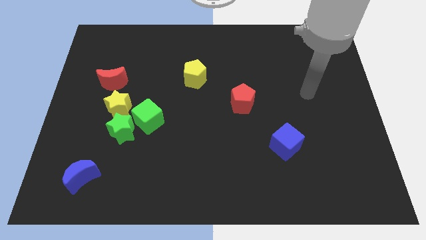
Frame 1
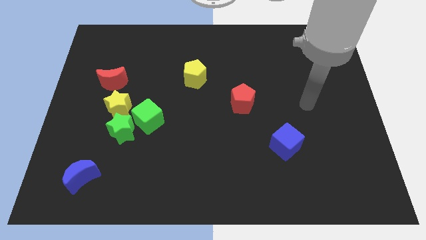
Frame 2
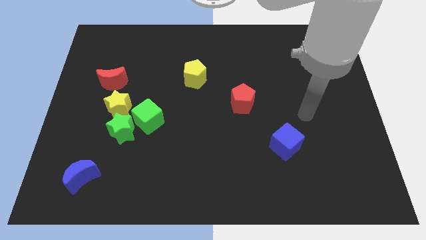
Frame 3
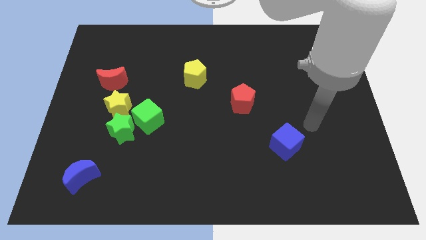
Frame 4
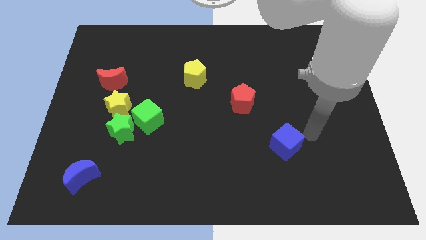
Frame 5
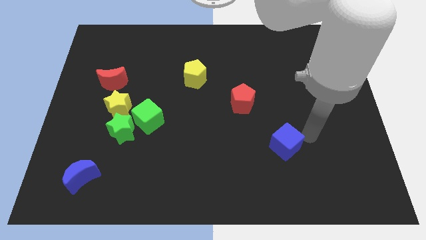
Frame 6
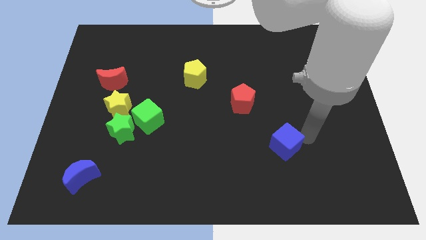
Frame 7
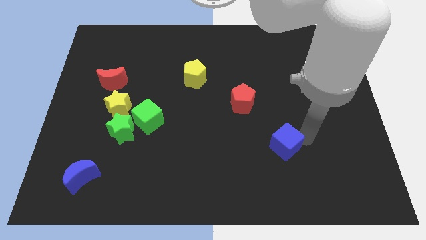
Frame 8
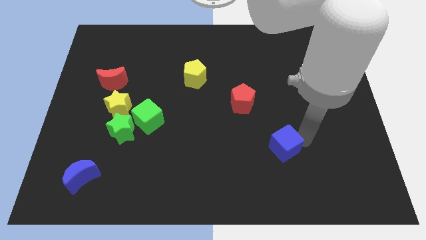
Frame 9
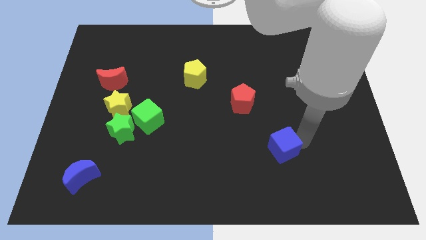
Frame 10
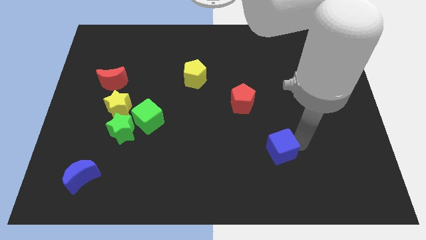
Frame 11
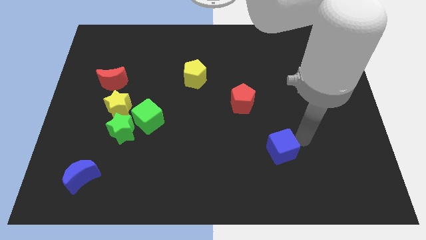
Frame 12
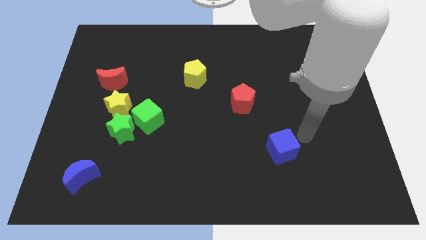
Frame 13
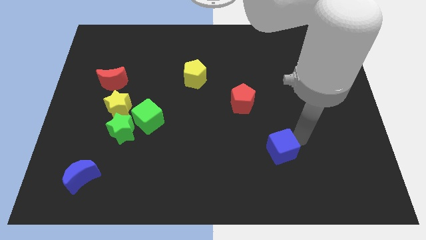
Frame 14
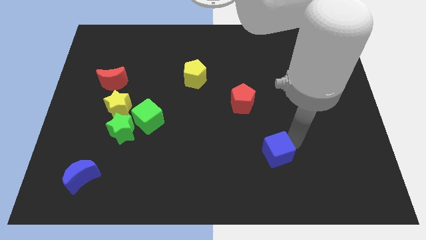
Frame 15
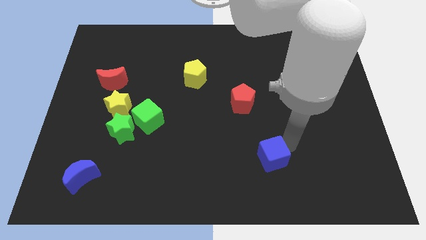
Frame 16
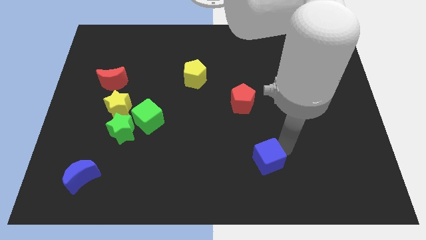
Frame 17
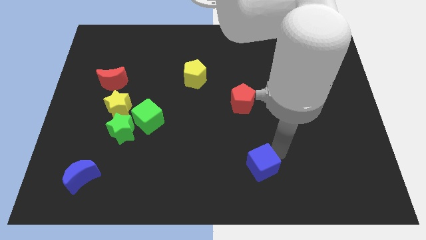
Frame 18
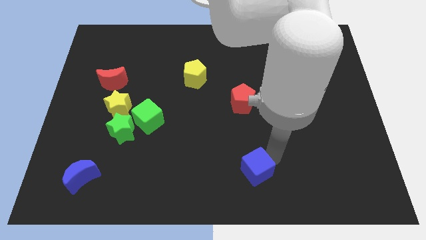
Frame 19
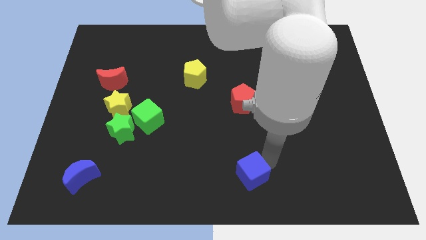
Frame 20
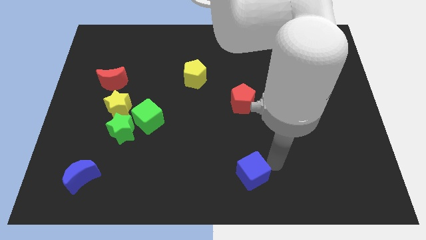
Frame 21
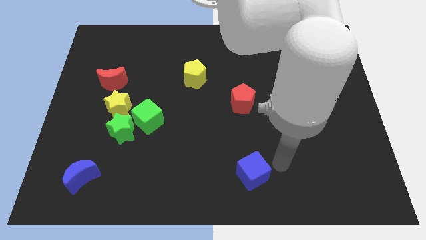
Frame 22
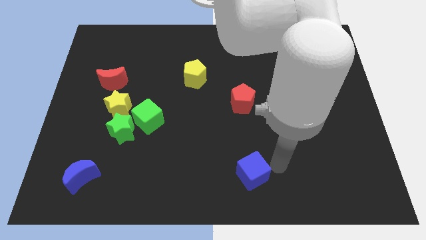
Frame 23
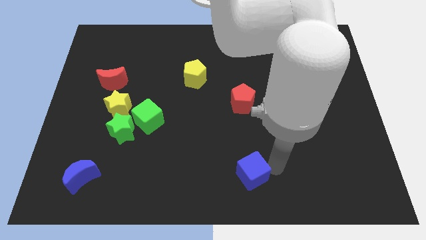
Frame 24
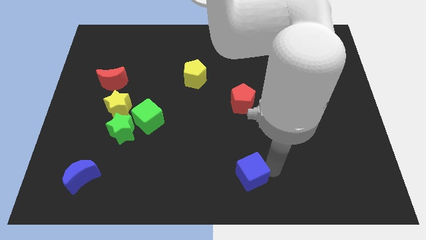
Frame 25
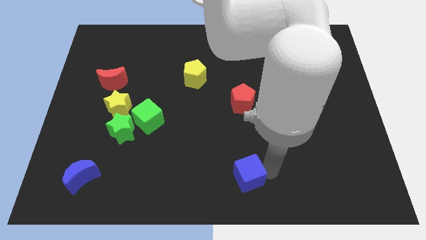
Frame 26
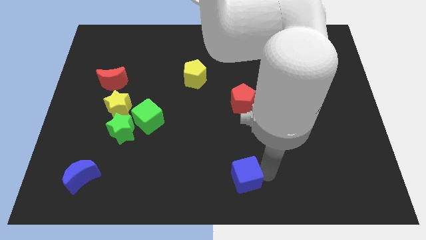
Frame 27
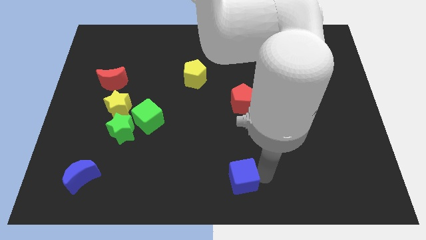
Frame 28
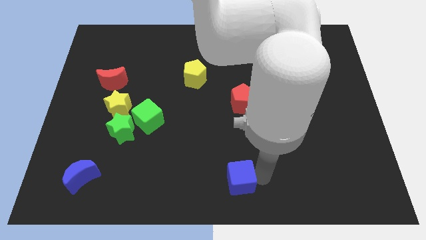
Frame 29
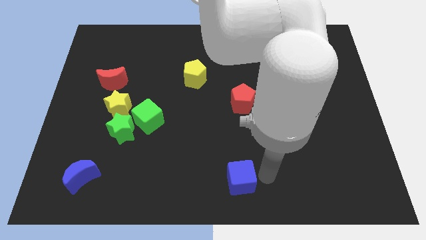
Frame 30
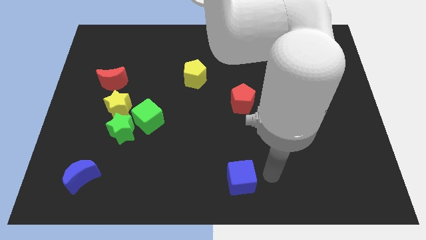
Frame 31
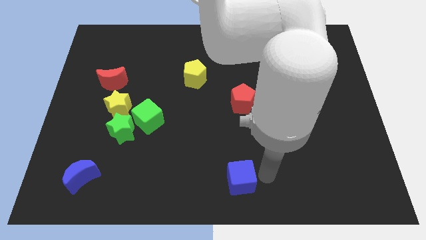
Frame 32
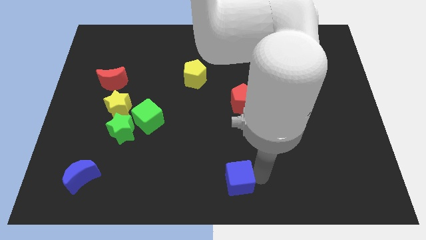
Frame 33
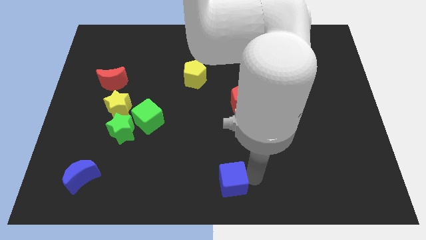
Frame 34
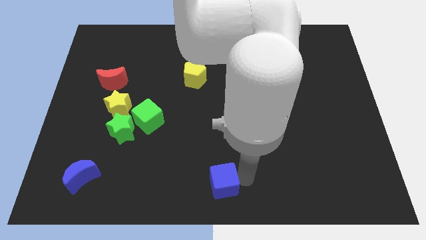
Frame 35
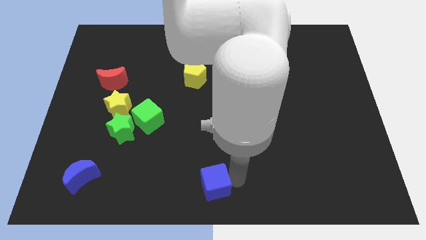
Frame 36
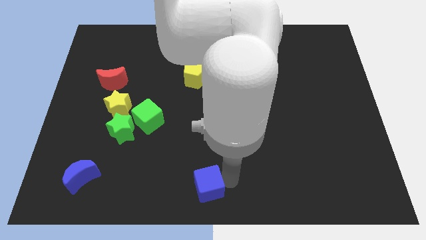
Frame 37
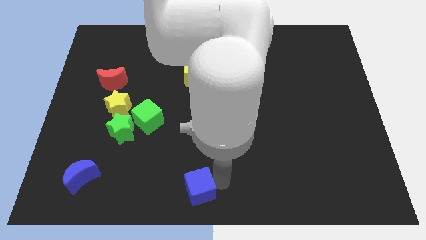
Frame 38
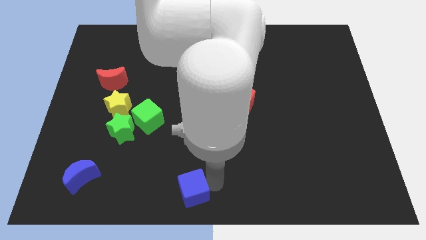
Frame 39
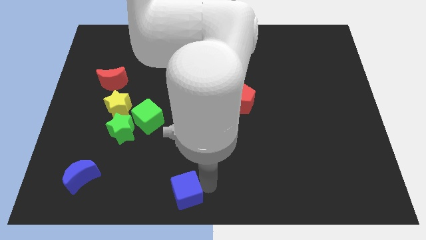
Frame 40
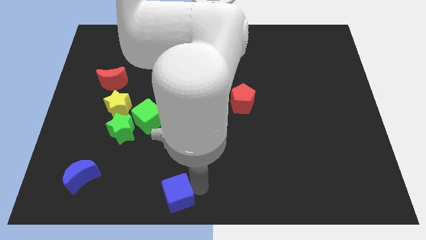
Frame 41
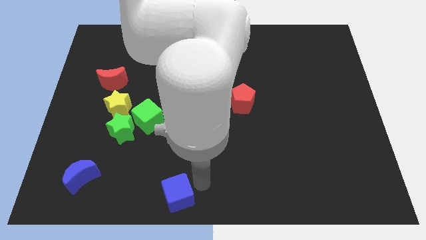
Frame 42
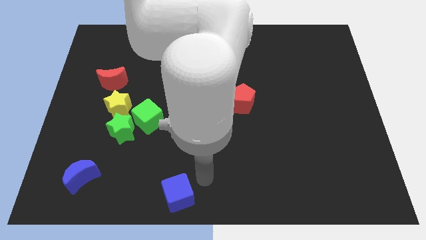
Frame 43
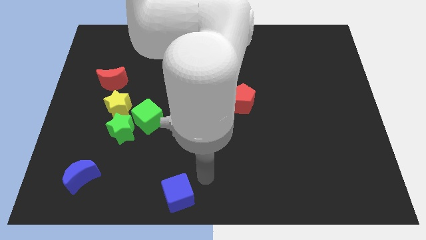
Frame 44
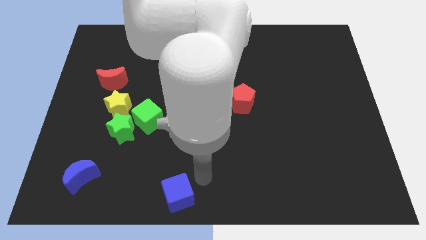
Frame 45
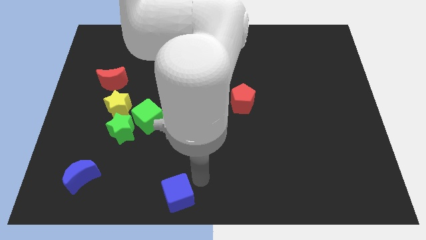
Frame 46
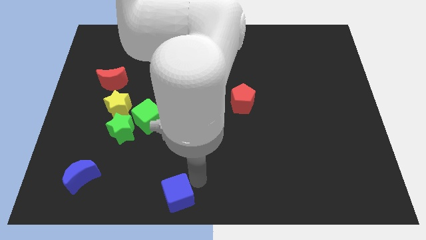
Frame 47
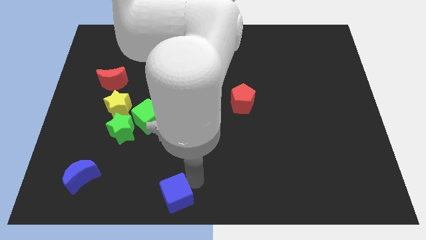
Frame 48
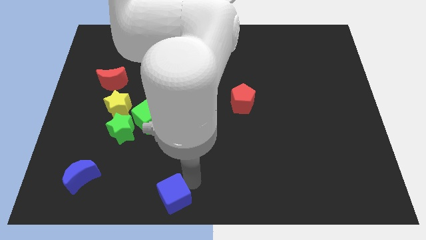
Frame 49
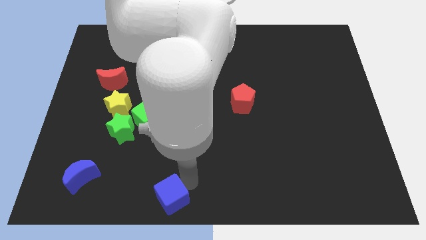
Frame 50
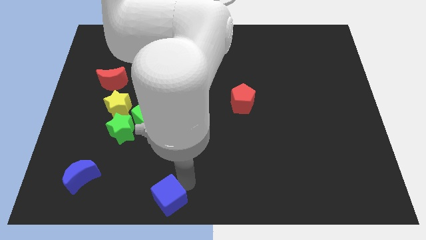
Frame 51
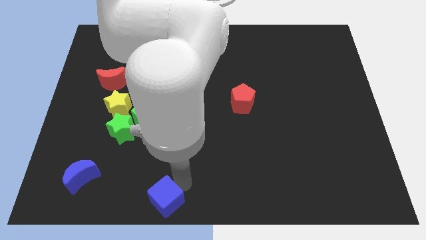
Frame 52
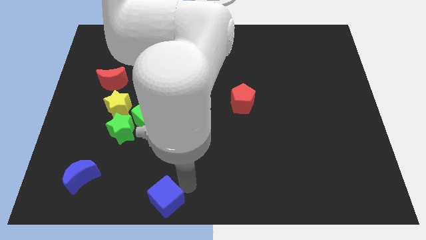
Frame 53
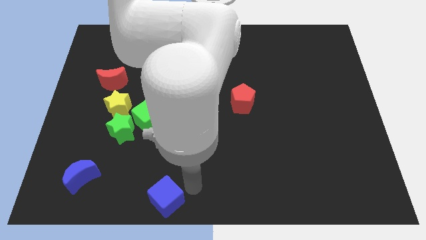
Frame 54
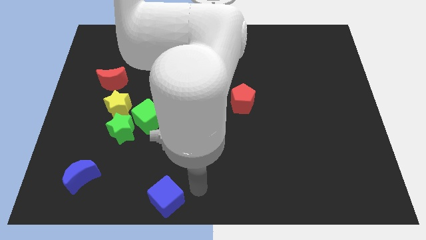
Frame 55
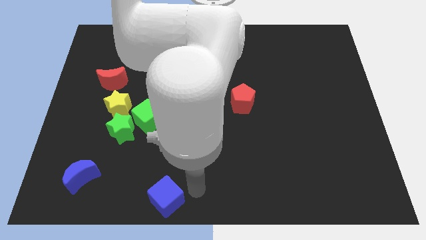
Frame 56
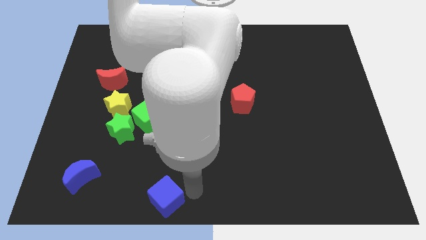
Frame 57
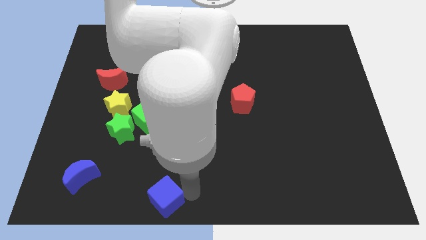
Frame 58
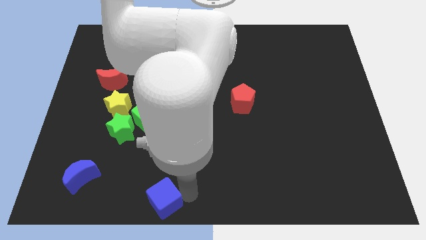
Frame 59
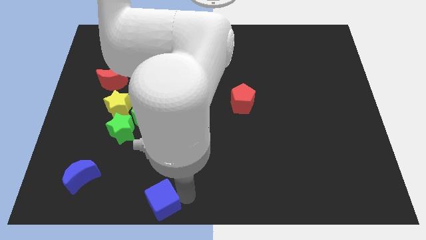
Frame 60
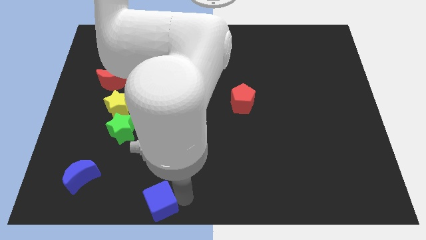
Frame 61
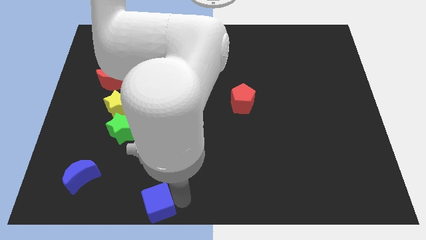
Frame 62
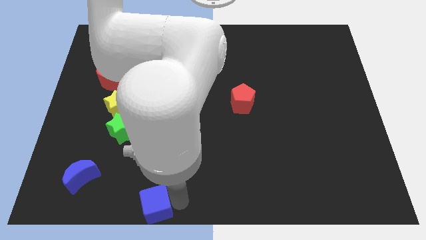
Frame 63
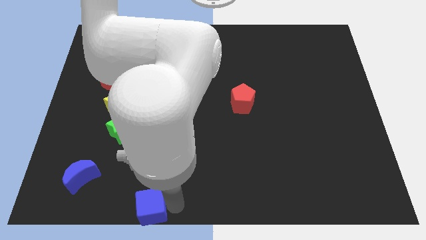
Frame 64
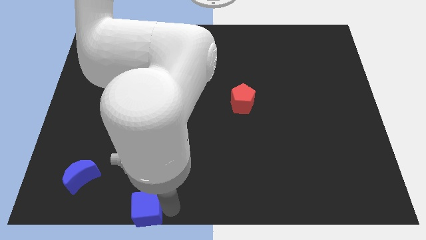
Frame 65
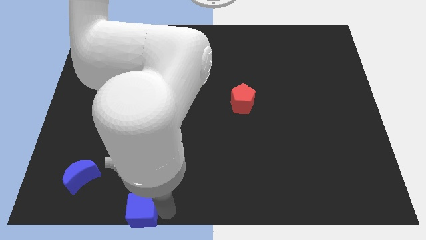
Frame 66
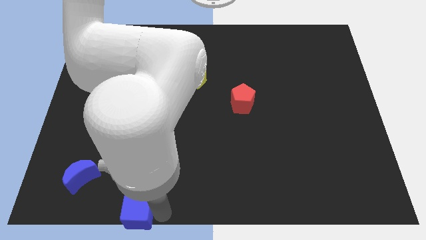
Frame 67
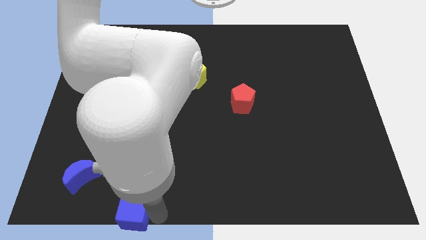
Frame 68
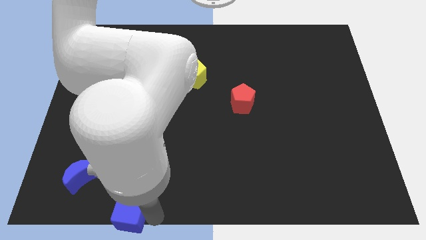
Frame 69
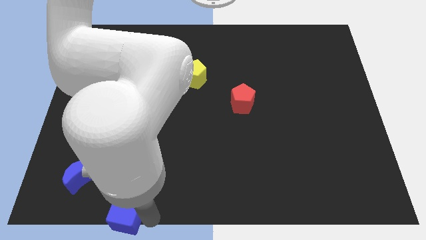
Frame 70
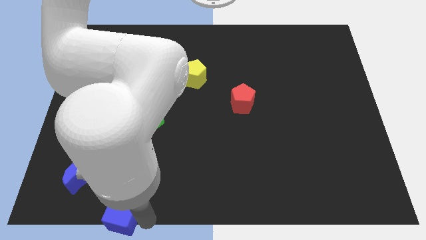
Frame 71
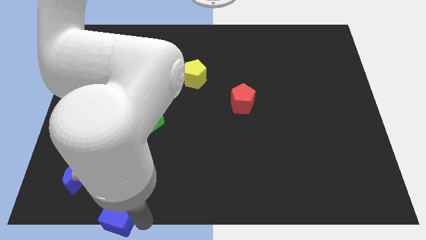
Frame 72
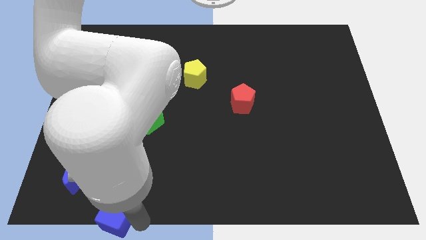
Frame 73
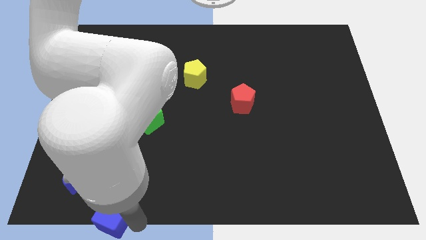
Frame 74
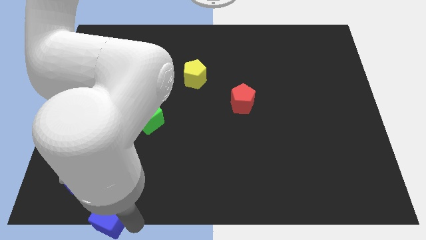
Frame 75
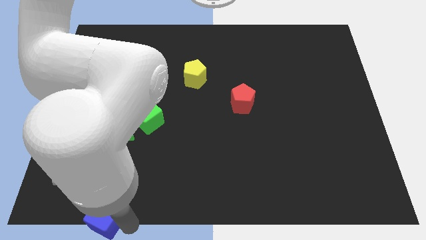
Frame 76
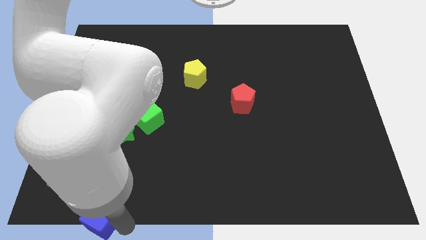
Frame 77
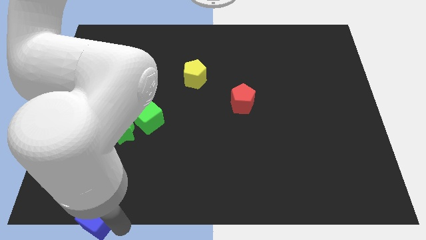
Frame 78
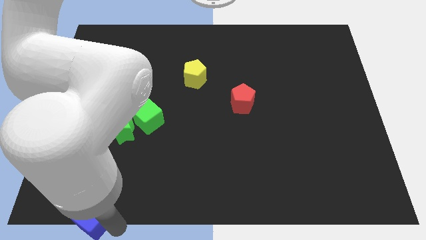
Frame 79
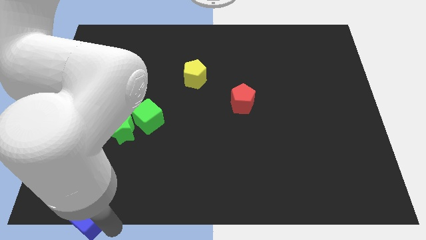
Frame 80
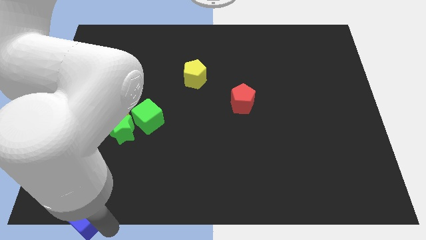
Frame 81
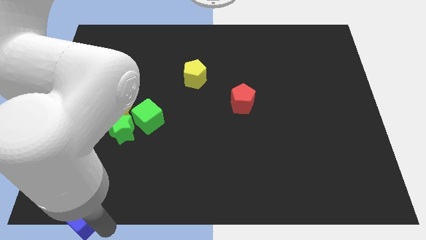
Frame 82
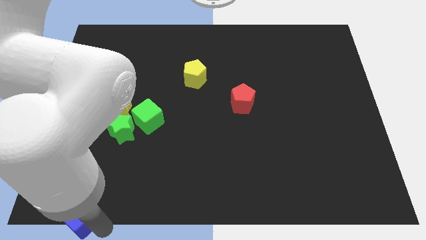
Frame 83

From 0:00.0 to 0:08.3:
slide the blue cube to the bottom left
